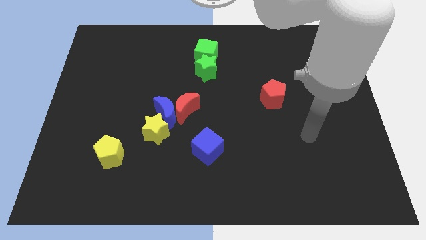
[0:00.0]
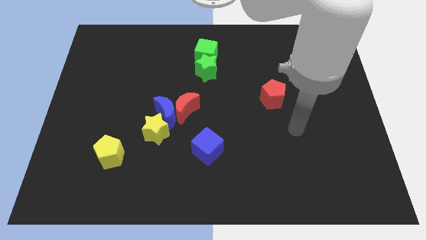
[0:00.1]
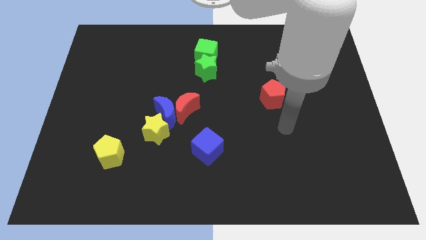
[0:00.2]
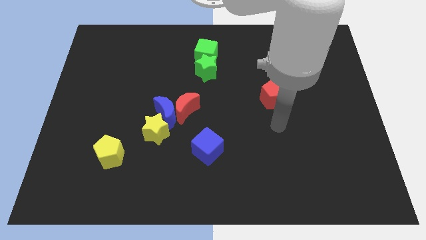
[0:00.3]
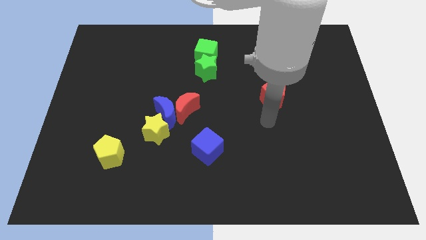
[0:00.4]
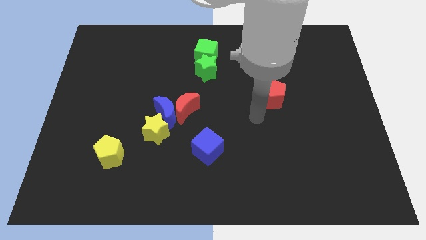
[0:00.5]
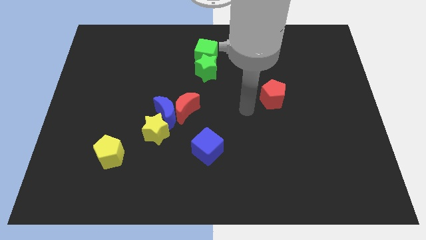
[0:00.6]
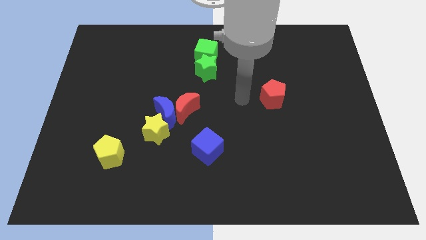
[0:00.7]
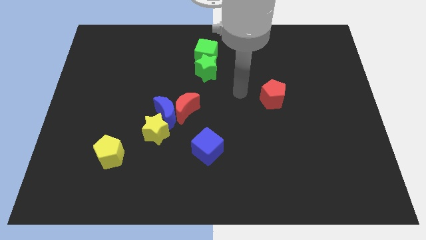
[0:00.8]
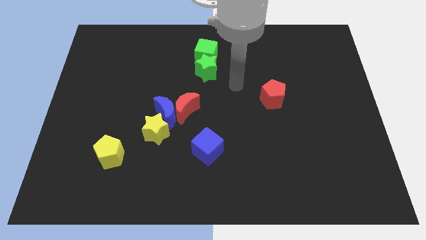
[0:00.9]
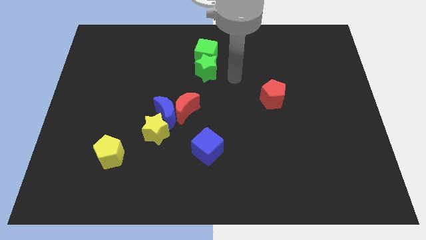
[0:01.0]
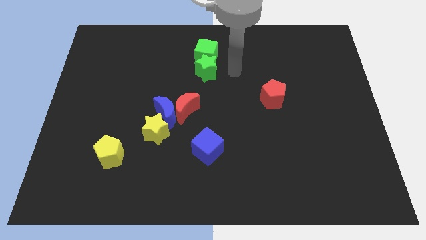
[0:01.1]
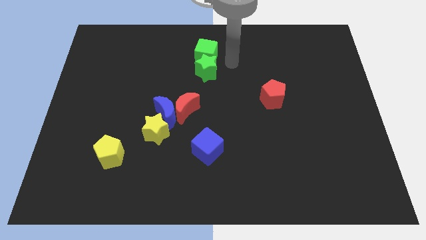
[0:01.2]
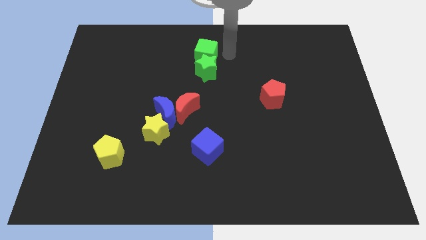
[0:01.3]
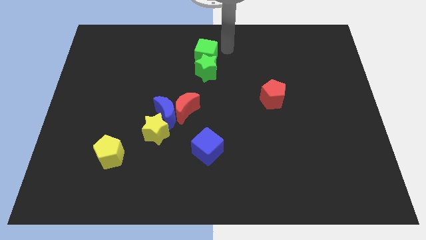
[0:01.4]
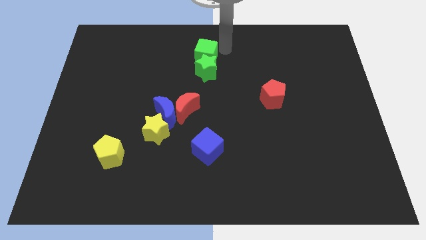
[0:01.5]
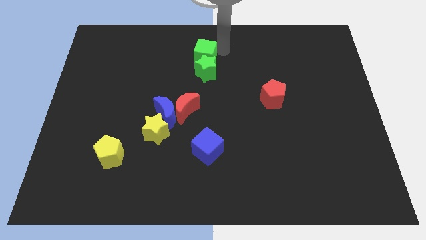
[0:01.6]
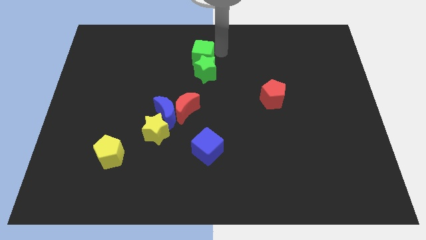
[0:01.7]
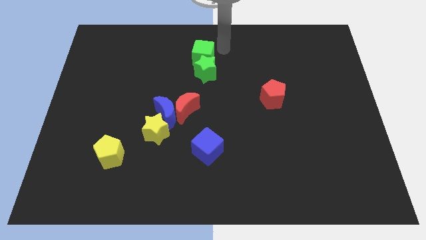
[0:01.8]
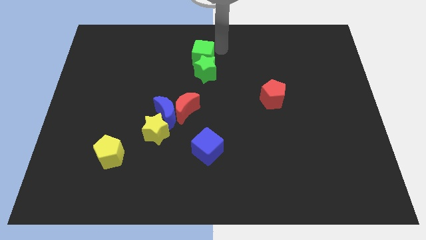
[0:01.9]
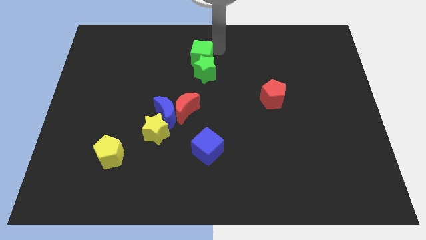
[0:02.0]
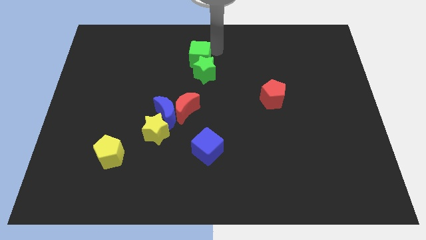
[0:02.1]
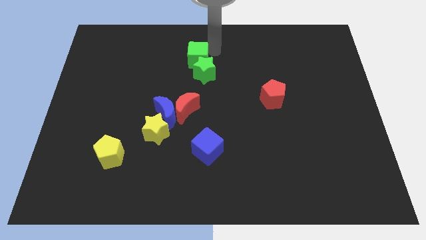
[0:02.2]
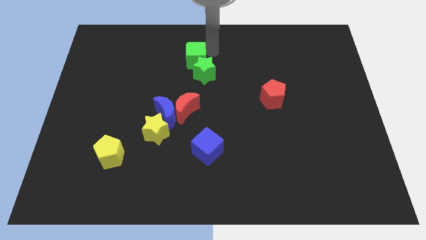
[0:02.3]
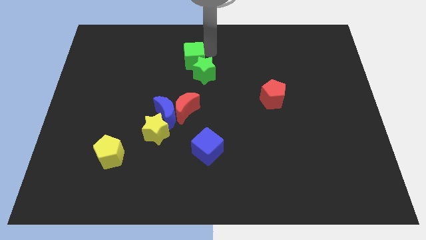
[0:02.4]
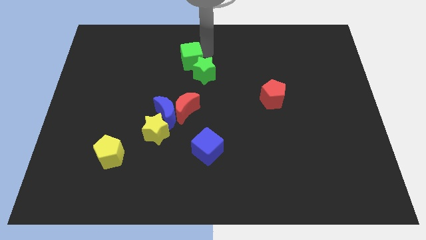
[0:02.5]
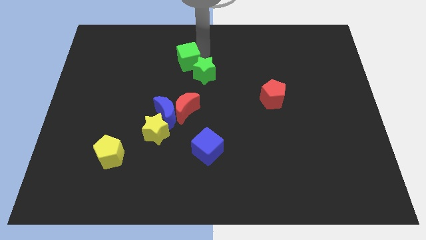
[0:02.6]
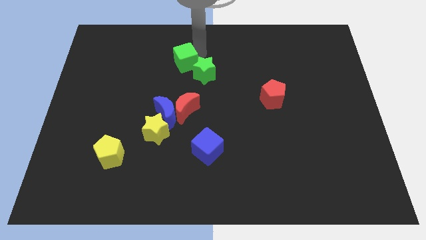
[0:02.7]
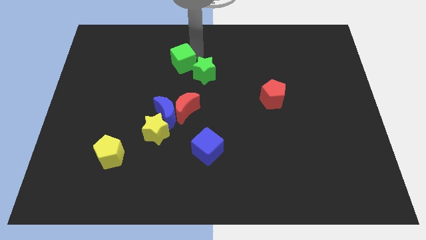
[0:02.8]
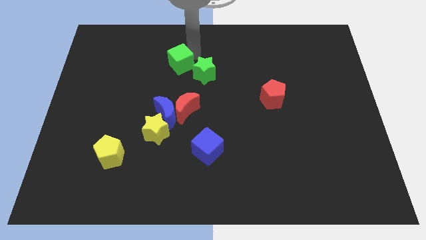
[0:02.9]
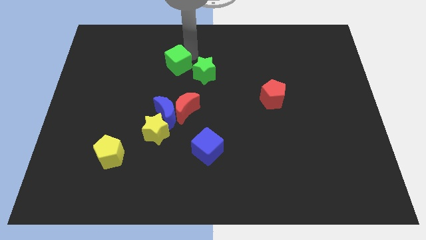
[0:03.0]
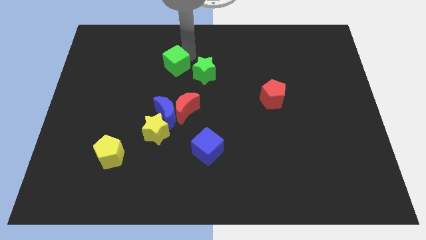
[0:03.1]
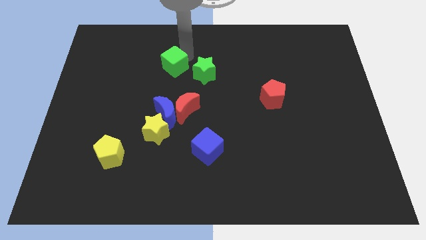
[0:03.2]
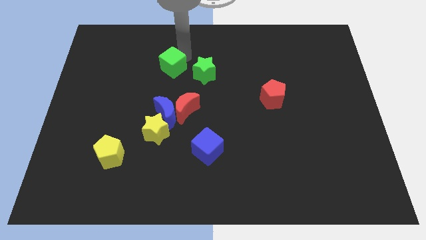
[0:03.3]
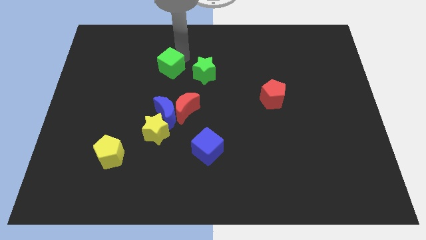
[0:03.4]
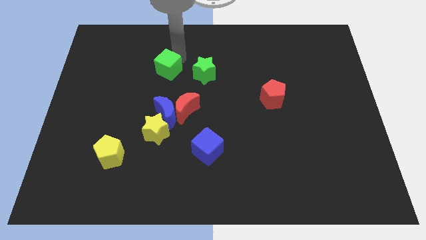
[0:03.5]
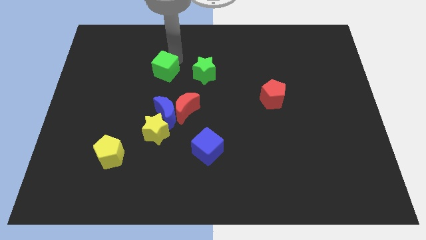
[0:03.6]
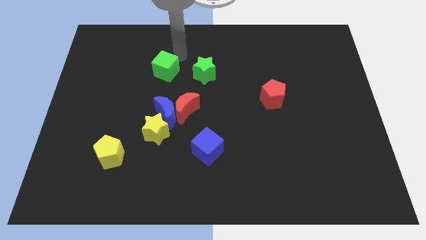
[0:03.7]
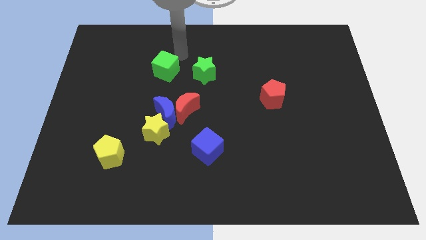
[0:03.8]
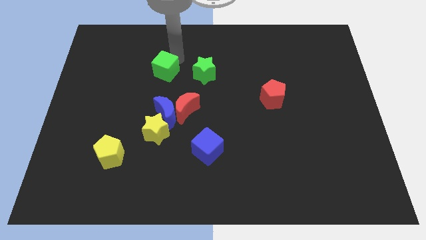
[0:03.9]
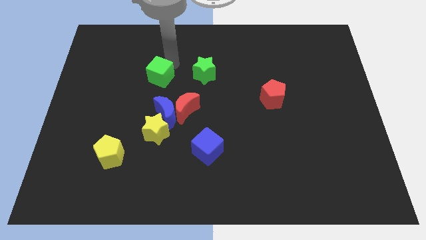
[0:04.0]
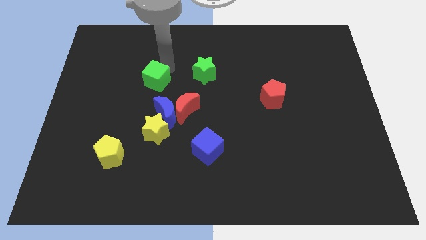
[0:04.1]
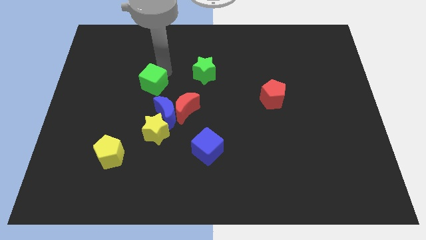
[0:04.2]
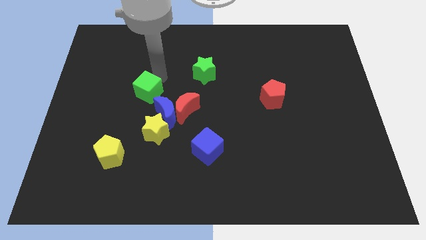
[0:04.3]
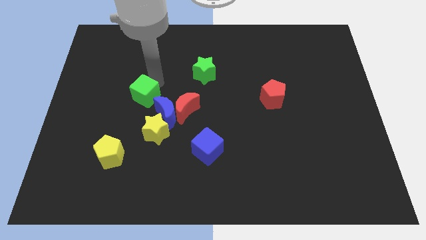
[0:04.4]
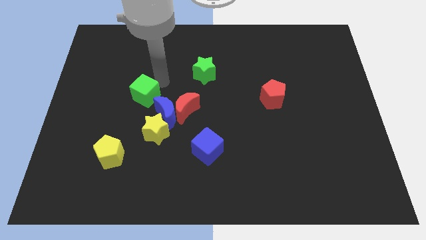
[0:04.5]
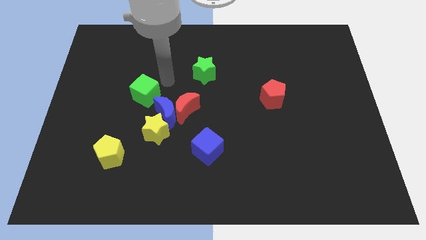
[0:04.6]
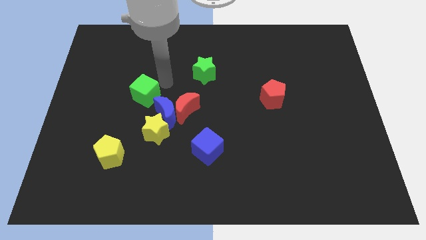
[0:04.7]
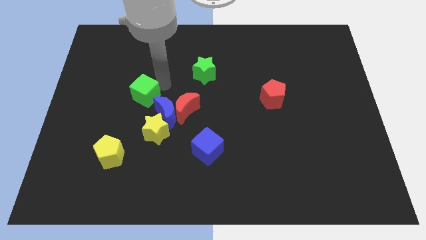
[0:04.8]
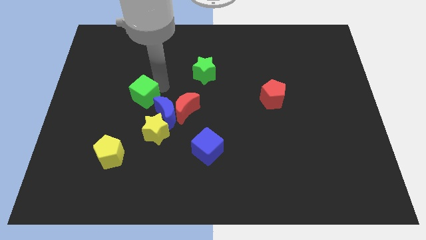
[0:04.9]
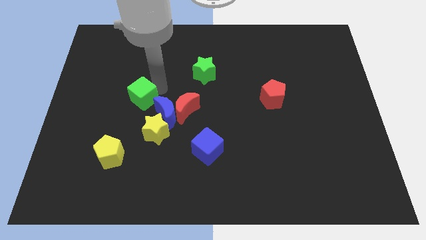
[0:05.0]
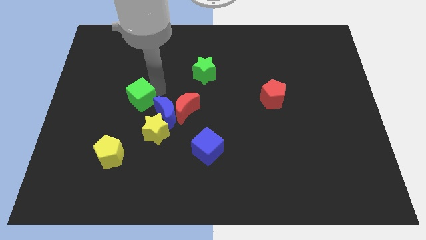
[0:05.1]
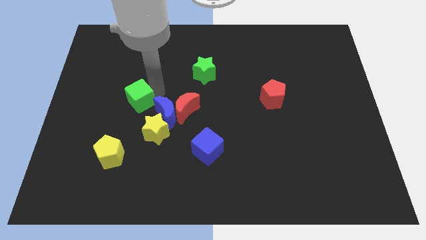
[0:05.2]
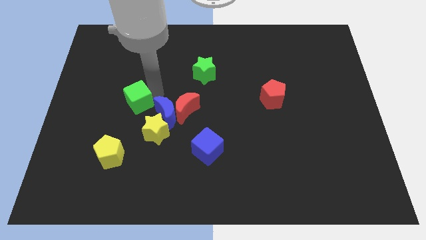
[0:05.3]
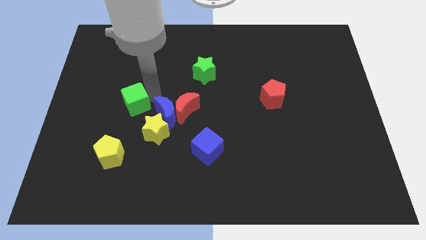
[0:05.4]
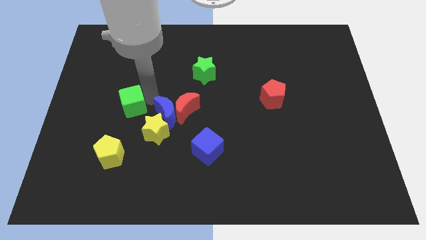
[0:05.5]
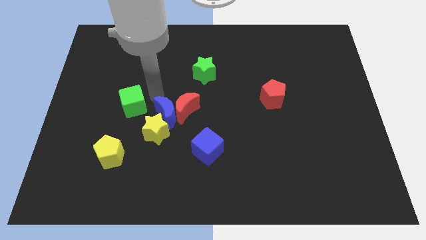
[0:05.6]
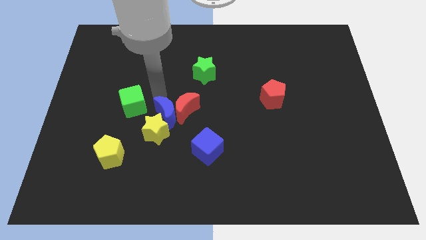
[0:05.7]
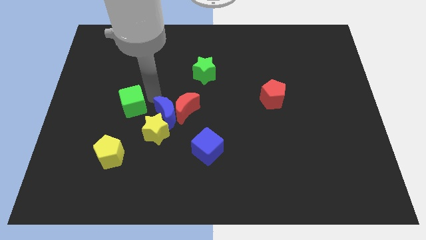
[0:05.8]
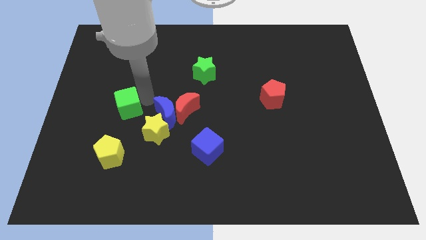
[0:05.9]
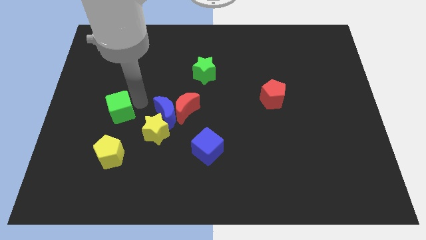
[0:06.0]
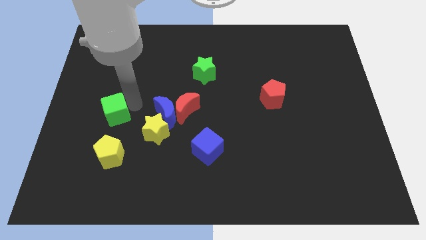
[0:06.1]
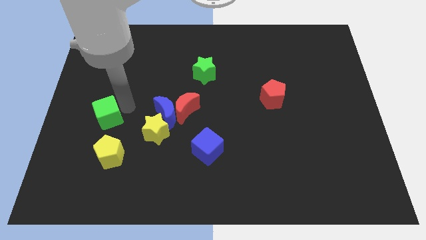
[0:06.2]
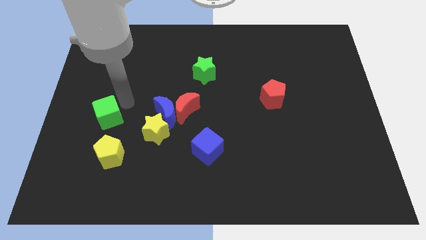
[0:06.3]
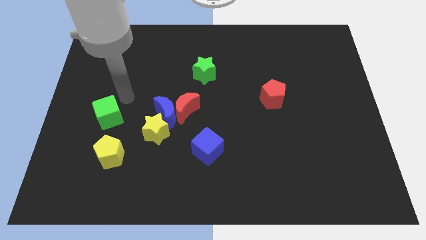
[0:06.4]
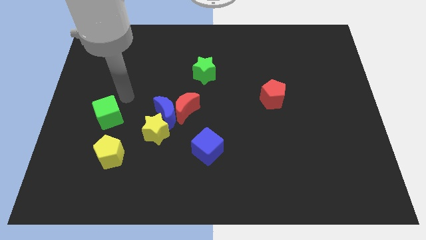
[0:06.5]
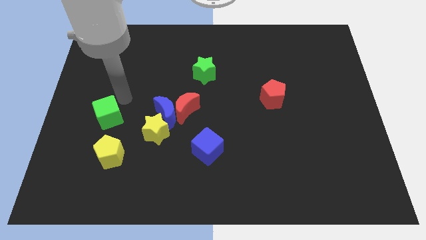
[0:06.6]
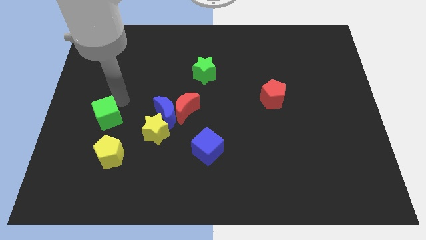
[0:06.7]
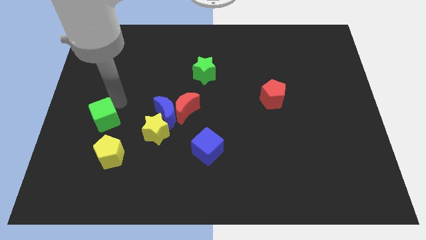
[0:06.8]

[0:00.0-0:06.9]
slide the green cube to the top left side of the yellow pentagon
